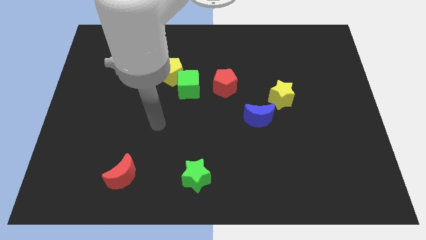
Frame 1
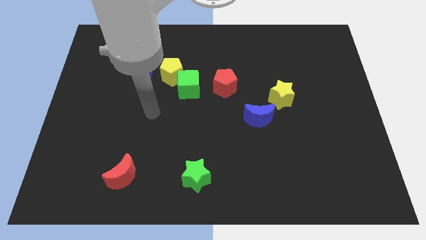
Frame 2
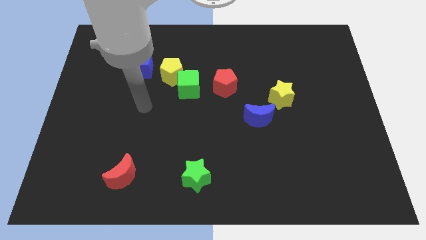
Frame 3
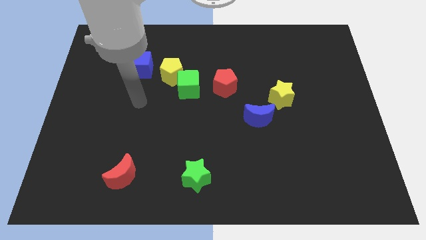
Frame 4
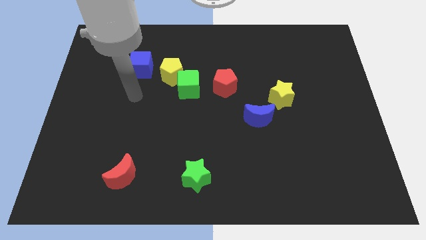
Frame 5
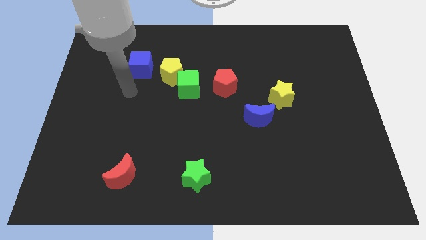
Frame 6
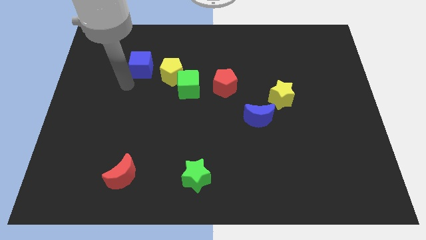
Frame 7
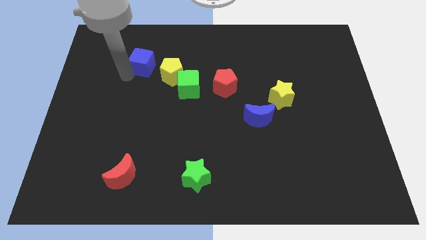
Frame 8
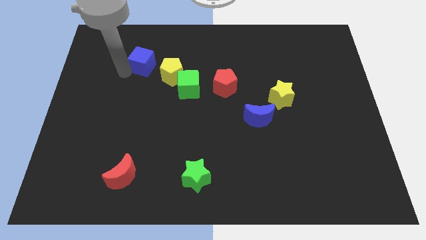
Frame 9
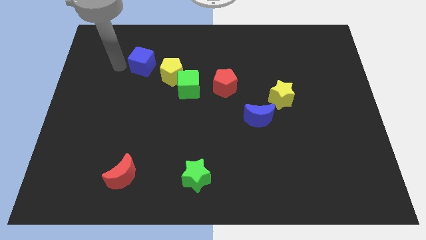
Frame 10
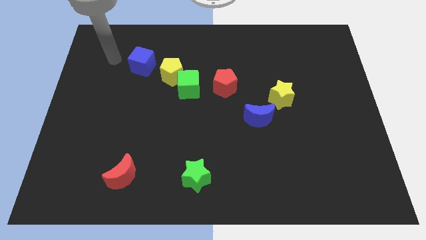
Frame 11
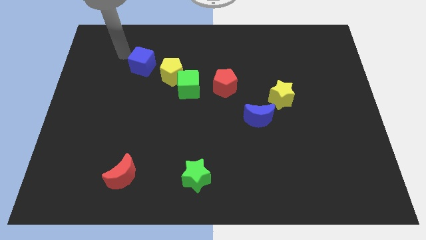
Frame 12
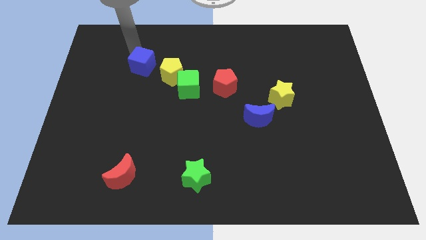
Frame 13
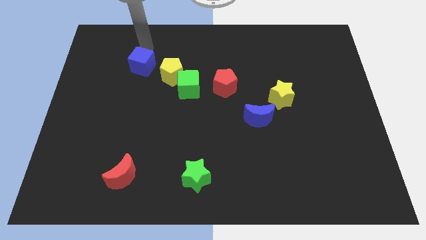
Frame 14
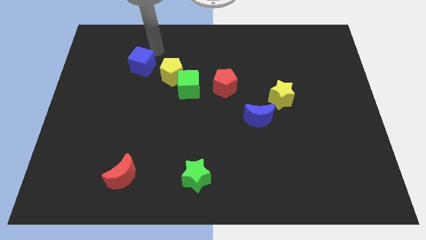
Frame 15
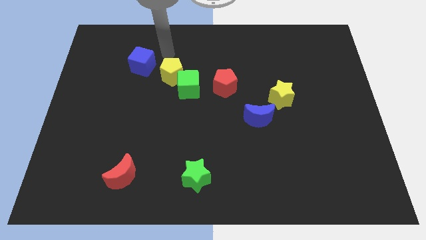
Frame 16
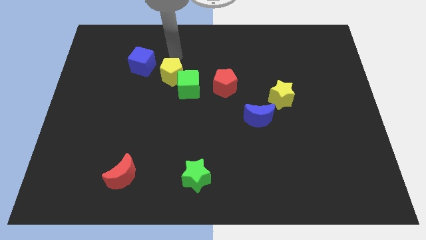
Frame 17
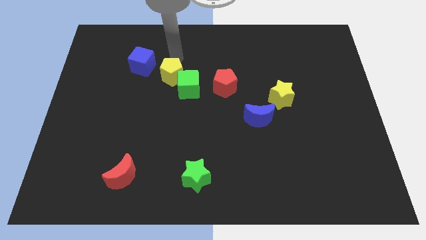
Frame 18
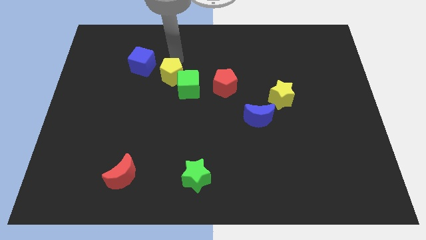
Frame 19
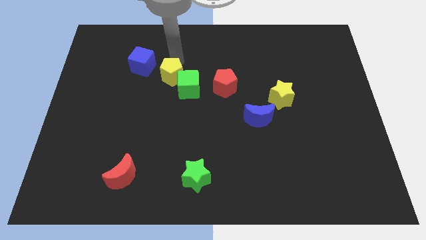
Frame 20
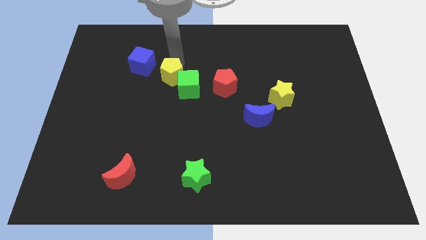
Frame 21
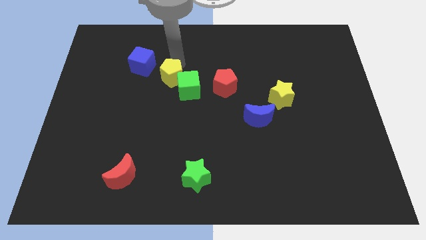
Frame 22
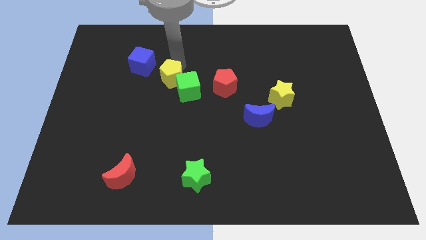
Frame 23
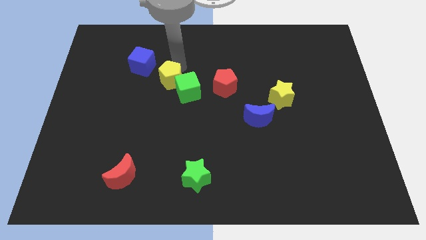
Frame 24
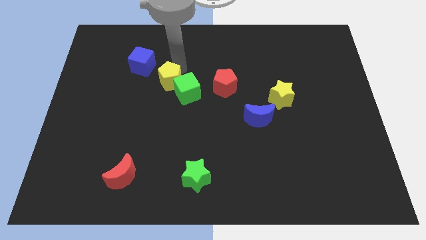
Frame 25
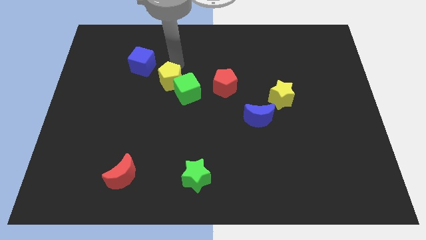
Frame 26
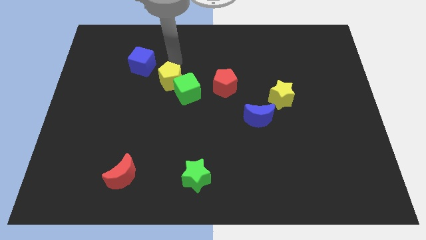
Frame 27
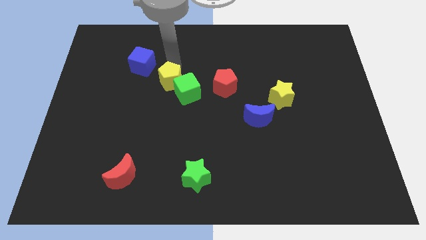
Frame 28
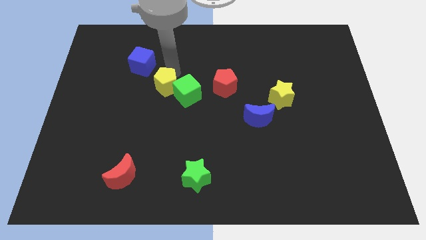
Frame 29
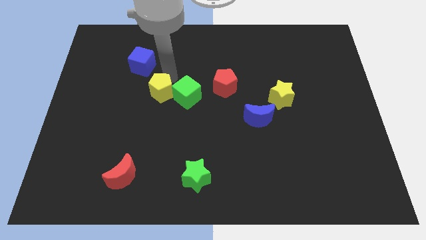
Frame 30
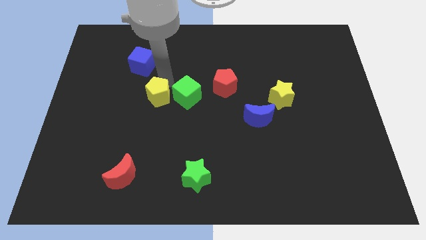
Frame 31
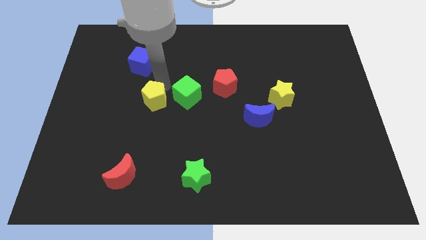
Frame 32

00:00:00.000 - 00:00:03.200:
slightly slide the yellow pentagon downwards

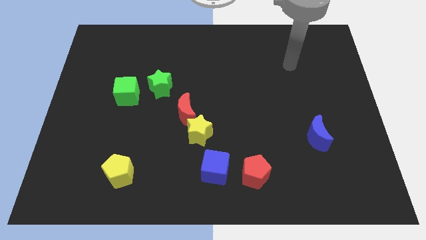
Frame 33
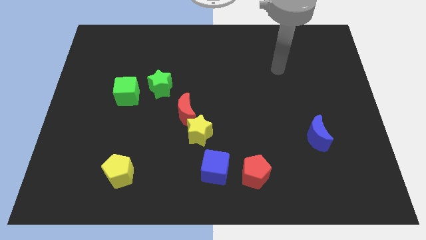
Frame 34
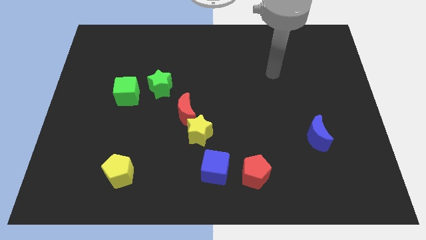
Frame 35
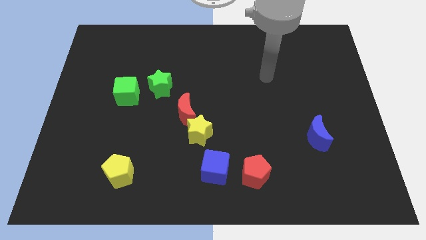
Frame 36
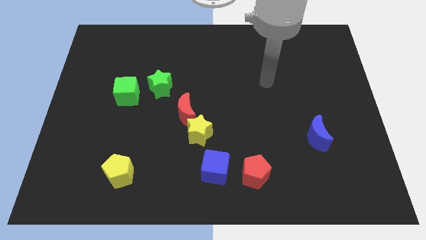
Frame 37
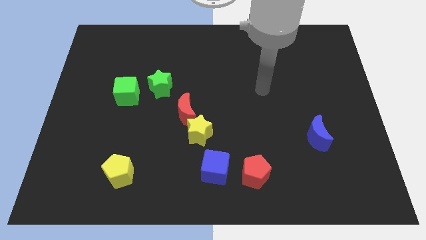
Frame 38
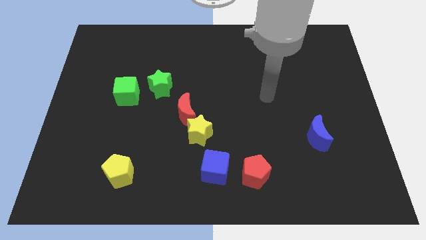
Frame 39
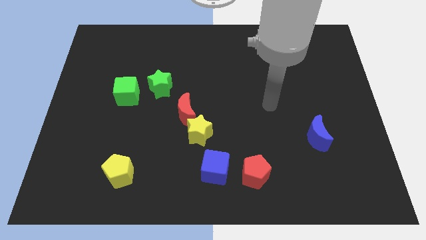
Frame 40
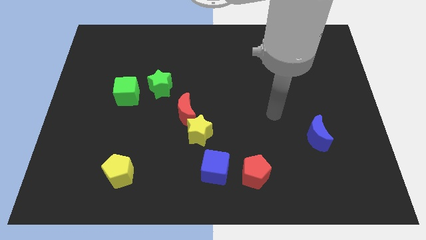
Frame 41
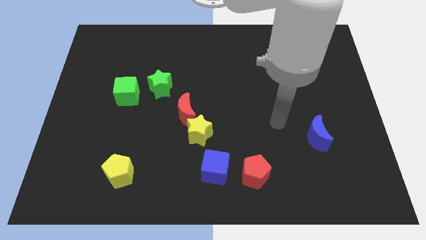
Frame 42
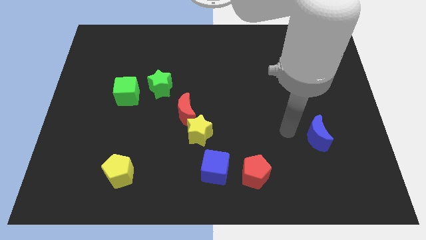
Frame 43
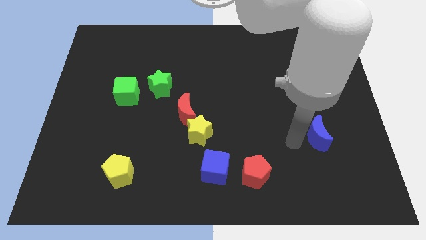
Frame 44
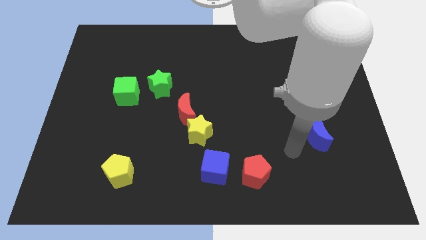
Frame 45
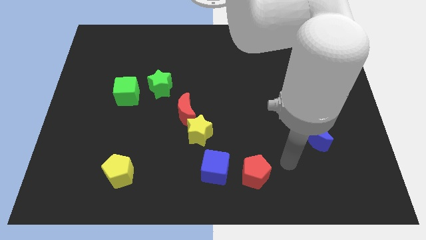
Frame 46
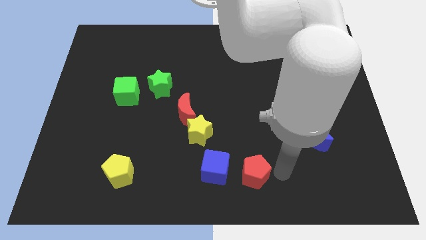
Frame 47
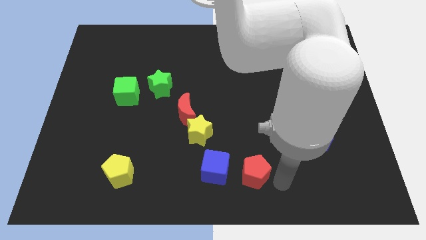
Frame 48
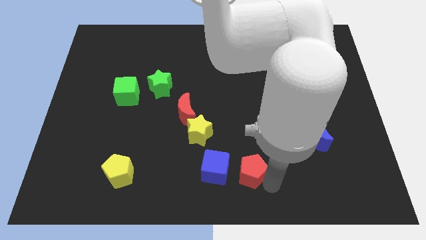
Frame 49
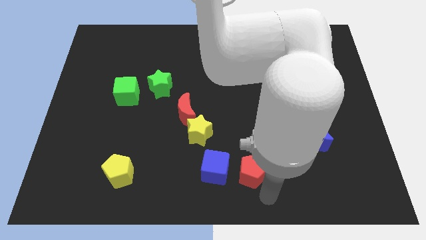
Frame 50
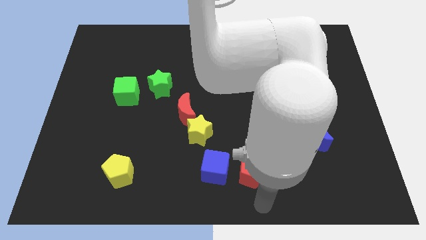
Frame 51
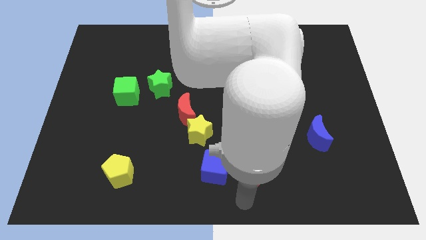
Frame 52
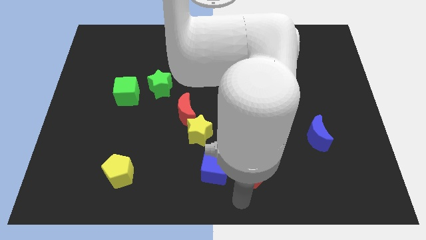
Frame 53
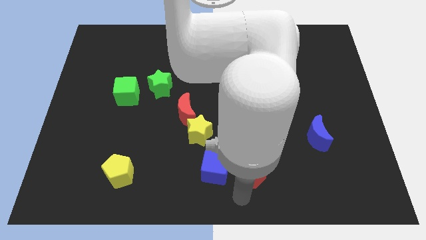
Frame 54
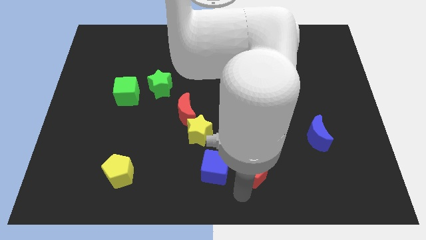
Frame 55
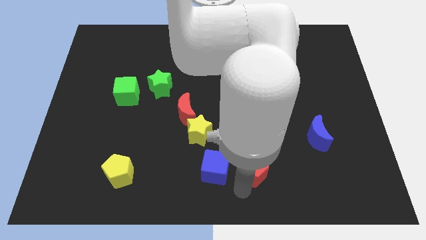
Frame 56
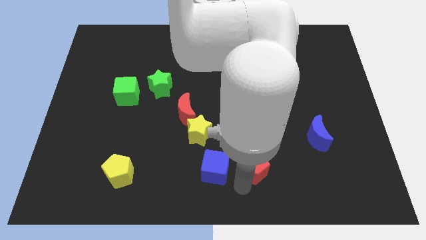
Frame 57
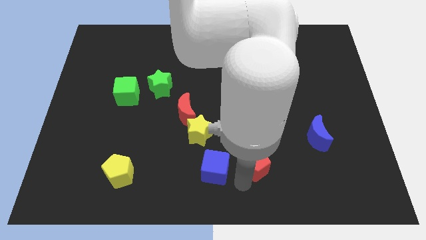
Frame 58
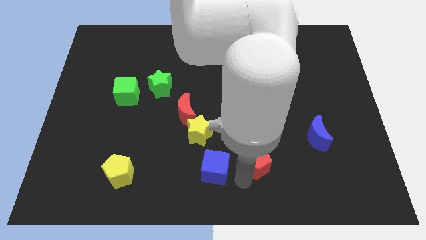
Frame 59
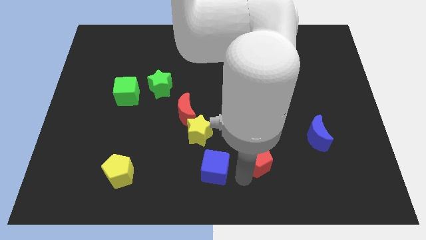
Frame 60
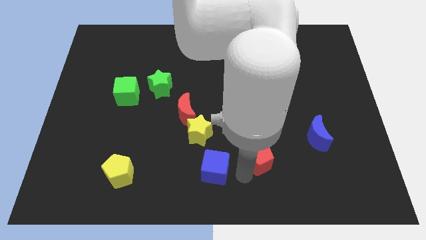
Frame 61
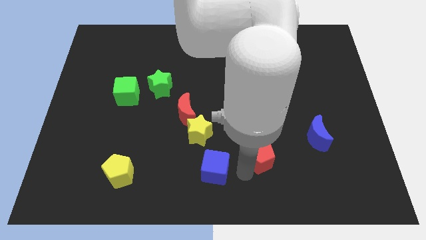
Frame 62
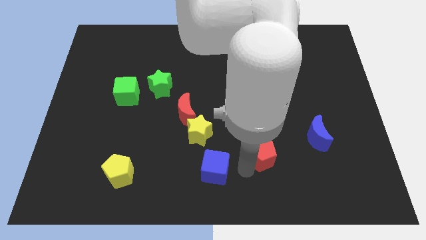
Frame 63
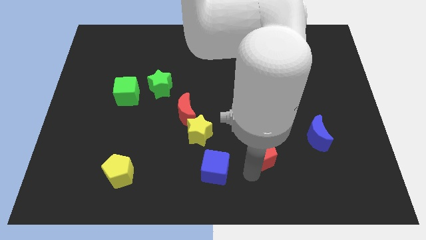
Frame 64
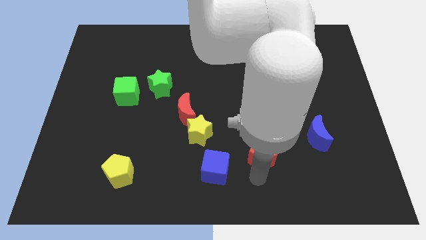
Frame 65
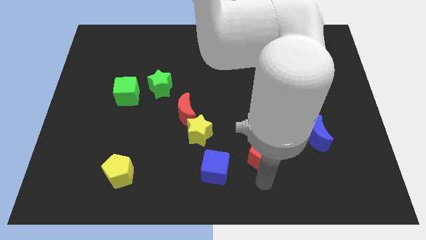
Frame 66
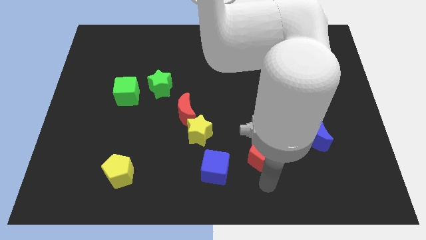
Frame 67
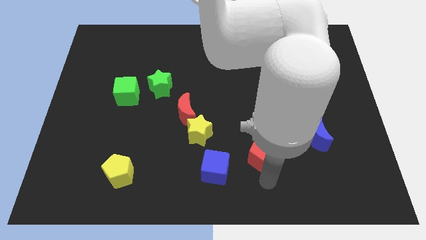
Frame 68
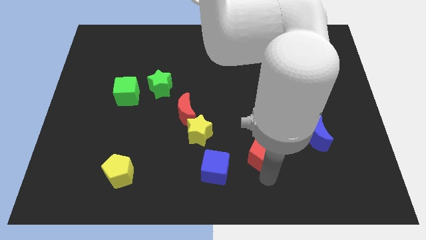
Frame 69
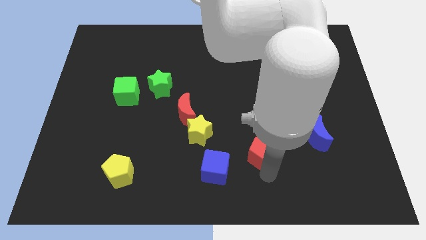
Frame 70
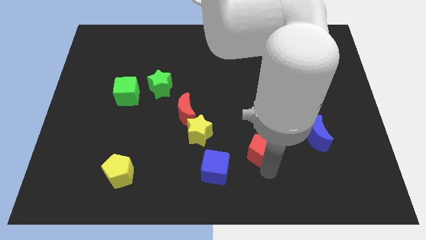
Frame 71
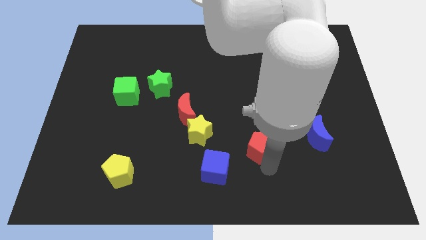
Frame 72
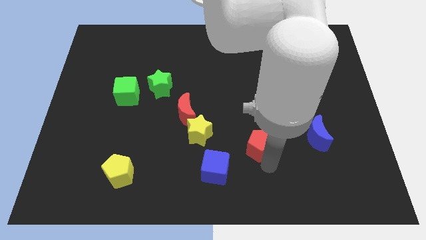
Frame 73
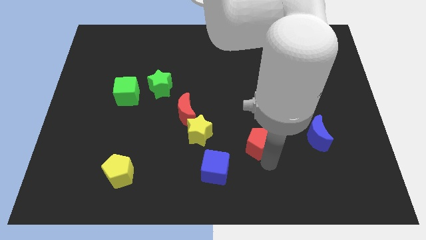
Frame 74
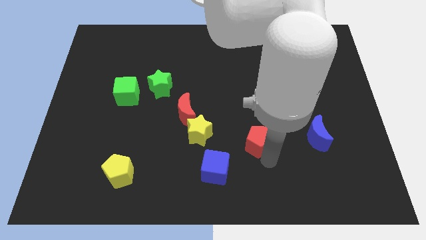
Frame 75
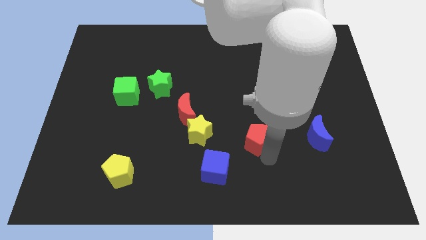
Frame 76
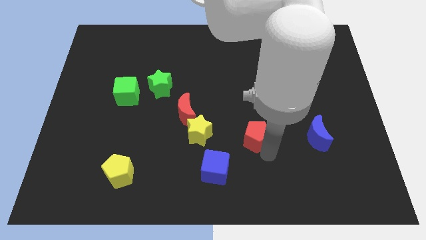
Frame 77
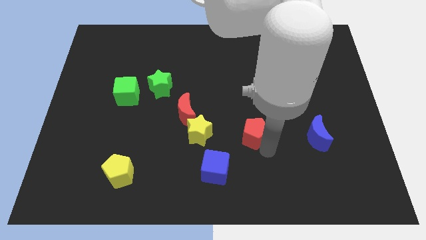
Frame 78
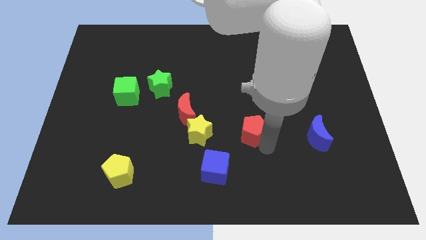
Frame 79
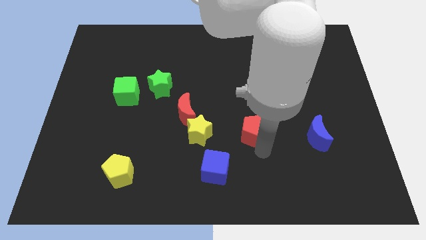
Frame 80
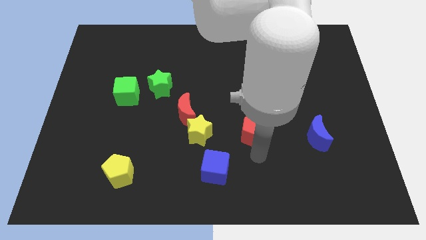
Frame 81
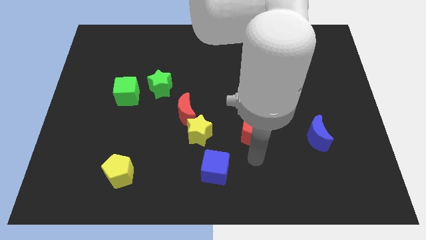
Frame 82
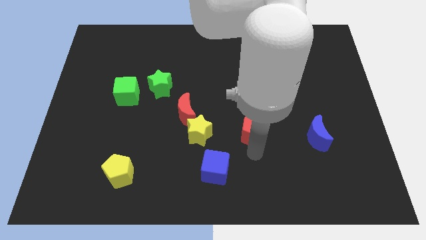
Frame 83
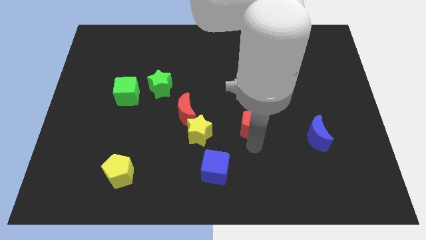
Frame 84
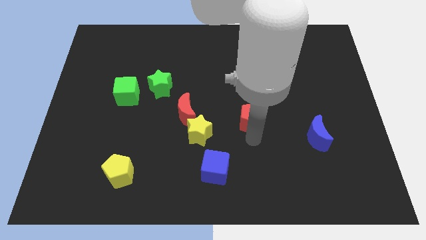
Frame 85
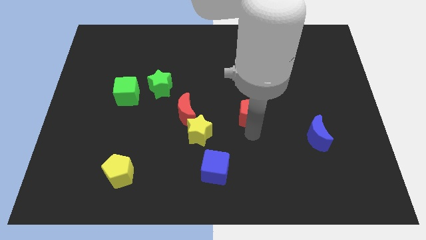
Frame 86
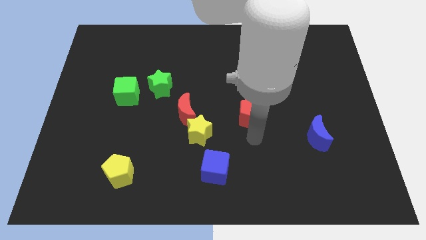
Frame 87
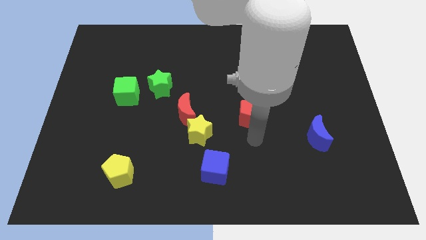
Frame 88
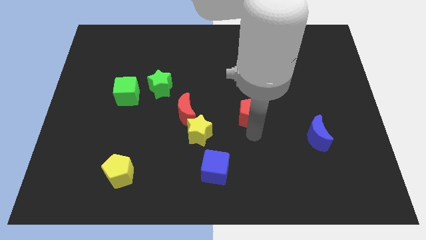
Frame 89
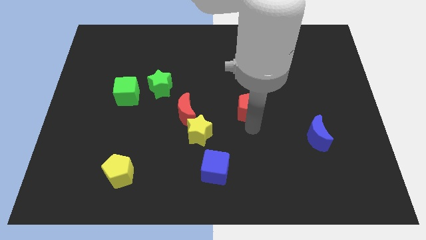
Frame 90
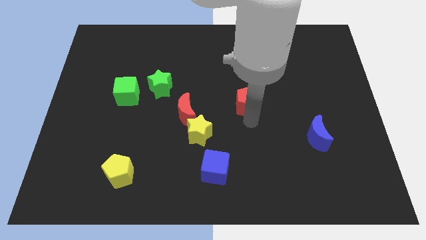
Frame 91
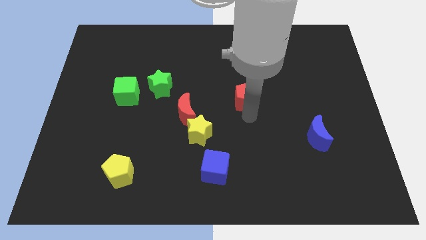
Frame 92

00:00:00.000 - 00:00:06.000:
push the red pentagon upwards
